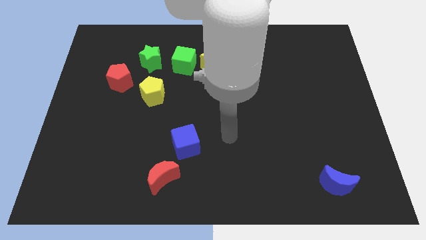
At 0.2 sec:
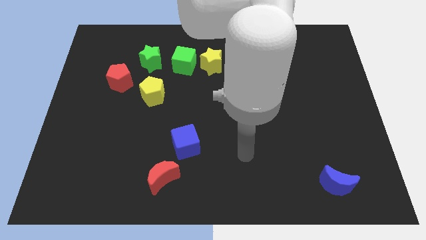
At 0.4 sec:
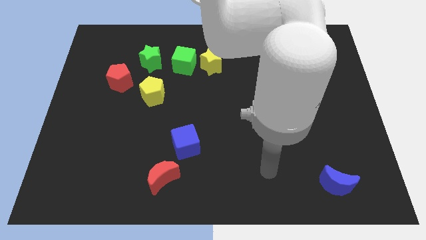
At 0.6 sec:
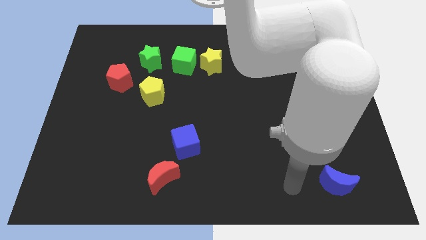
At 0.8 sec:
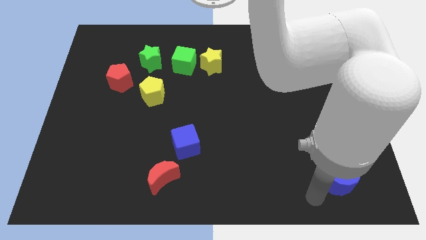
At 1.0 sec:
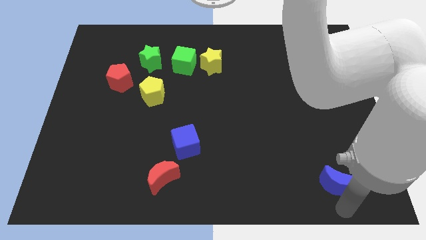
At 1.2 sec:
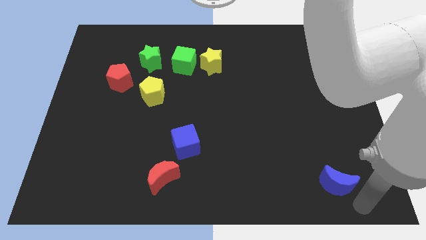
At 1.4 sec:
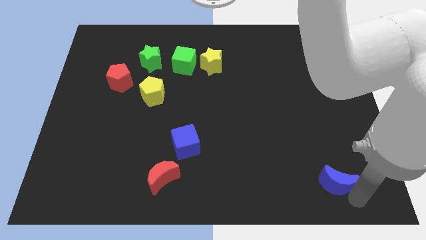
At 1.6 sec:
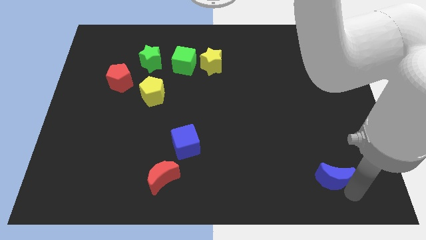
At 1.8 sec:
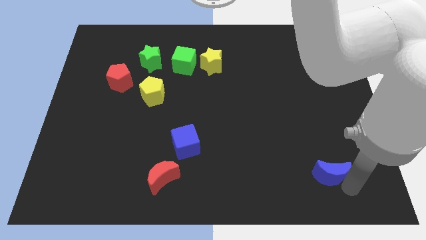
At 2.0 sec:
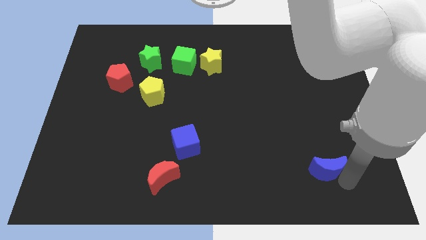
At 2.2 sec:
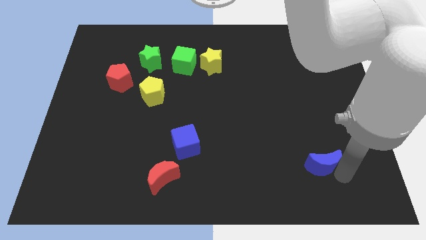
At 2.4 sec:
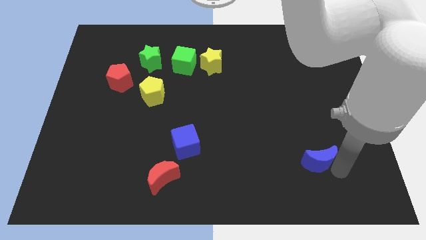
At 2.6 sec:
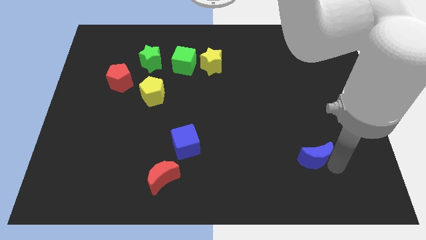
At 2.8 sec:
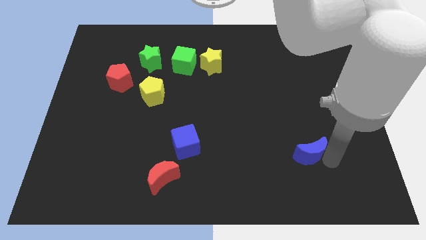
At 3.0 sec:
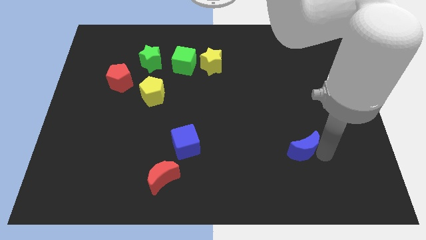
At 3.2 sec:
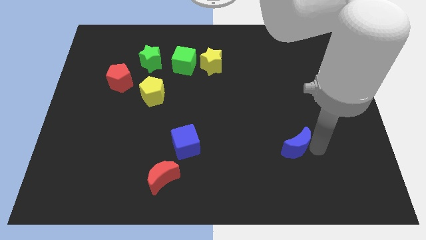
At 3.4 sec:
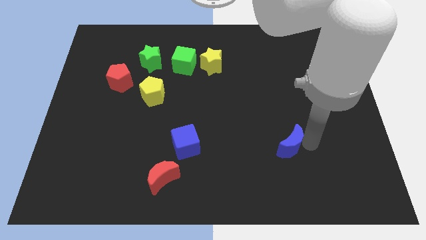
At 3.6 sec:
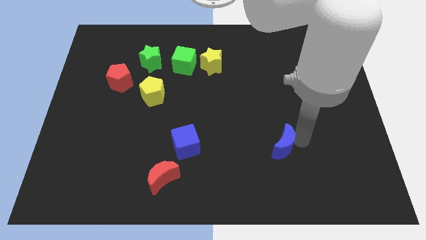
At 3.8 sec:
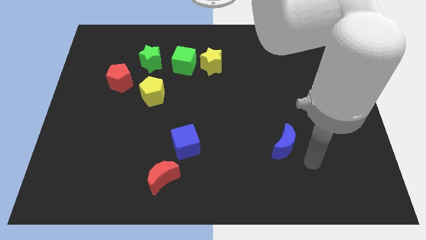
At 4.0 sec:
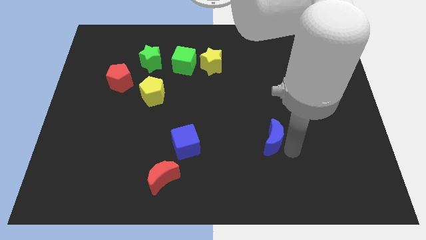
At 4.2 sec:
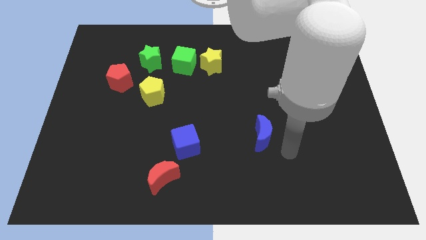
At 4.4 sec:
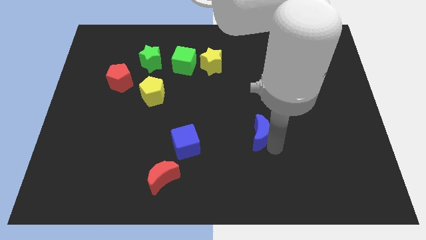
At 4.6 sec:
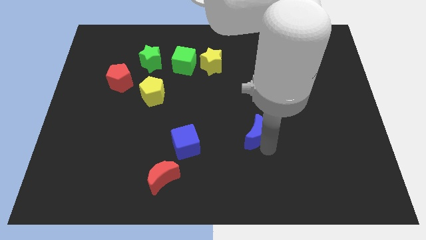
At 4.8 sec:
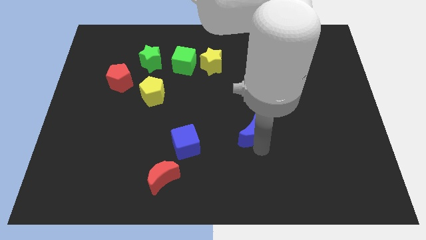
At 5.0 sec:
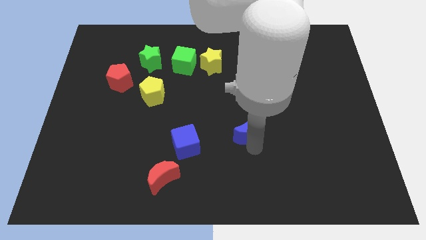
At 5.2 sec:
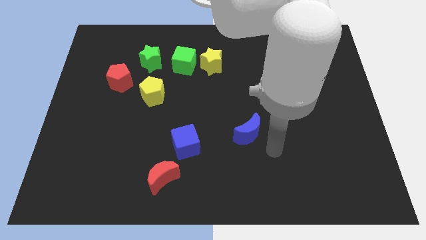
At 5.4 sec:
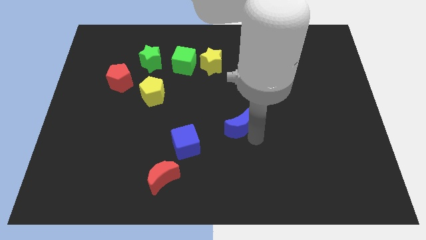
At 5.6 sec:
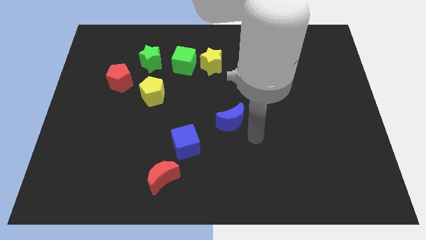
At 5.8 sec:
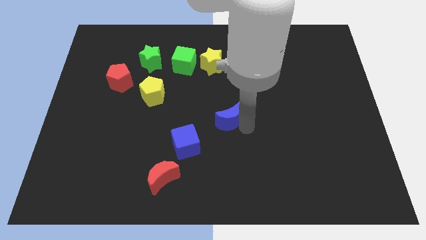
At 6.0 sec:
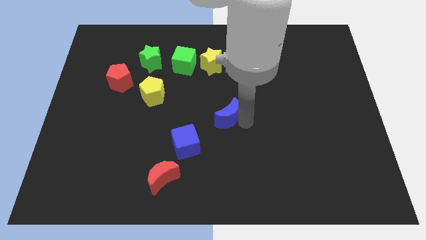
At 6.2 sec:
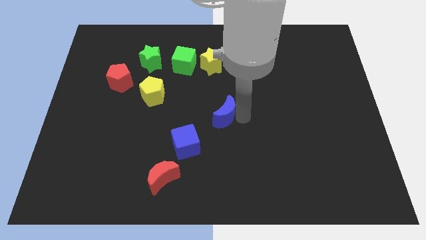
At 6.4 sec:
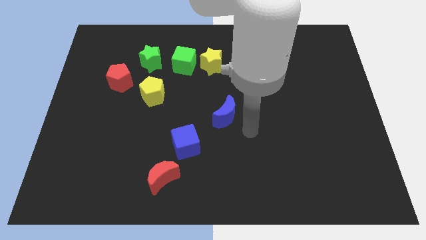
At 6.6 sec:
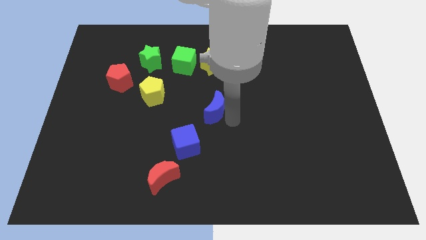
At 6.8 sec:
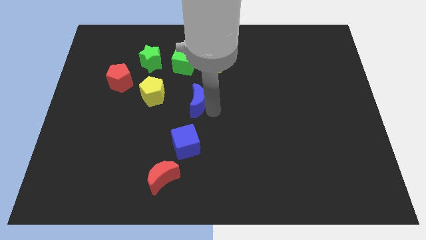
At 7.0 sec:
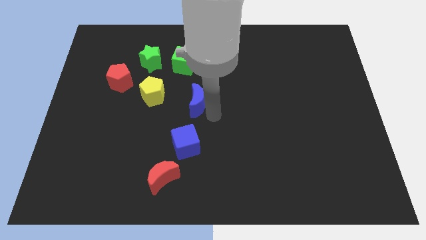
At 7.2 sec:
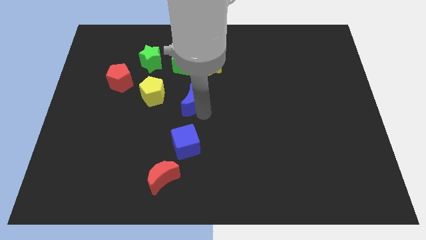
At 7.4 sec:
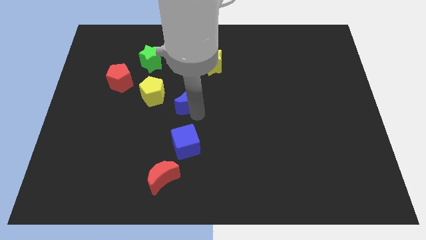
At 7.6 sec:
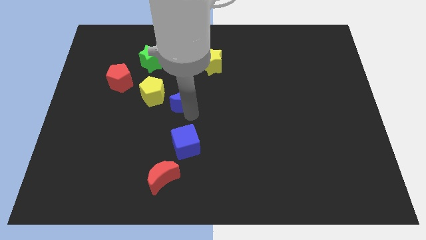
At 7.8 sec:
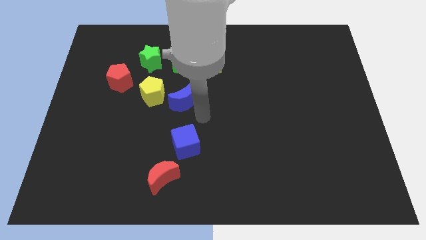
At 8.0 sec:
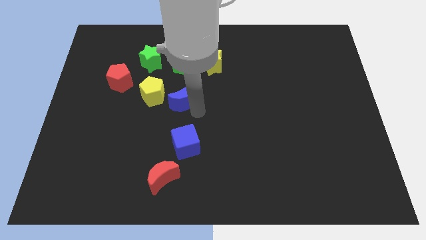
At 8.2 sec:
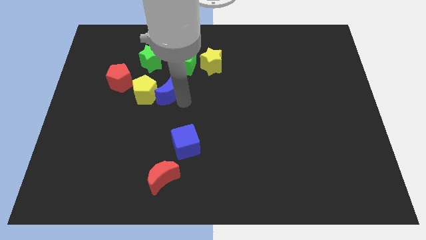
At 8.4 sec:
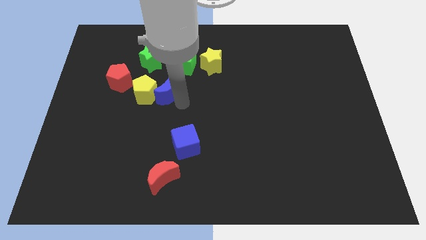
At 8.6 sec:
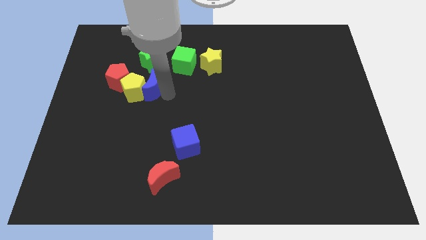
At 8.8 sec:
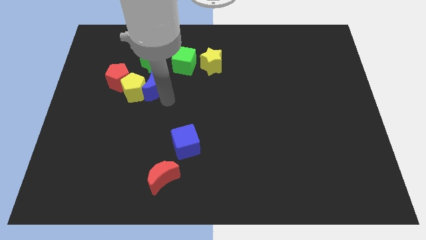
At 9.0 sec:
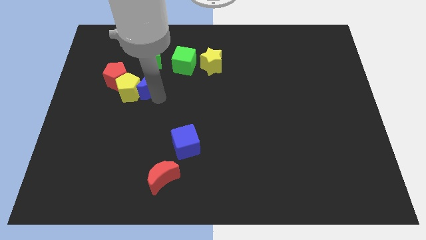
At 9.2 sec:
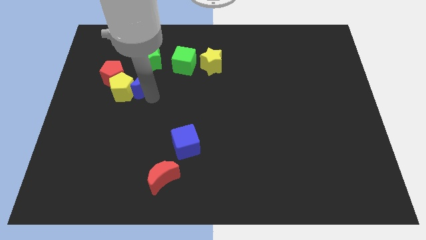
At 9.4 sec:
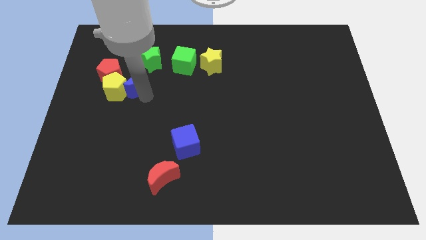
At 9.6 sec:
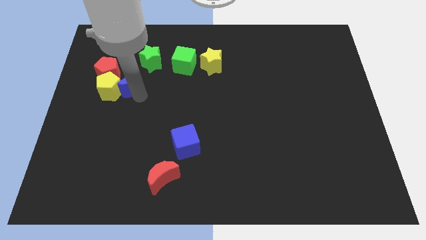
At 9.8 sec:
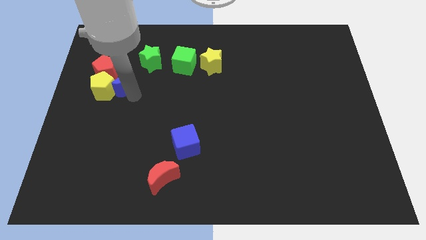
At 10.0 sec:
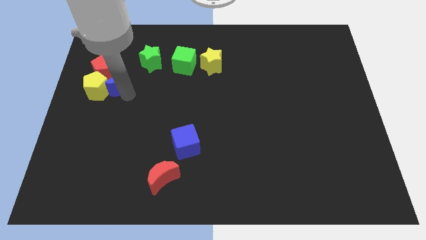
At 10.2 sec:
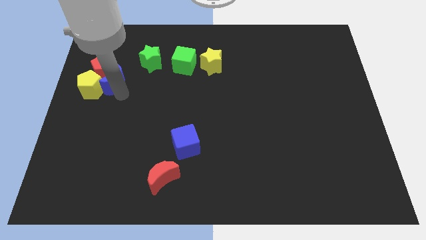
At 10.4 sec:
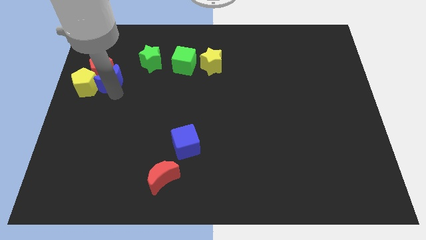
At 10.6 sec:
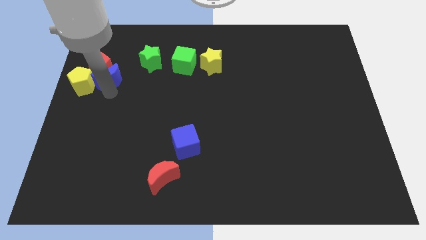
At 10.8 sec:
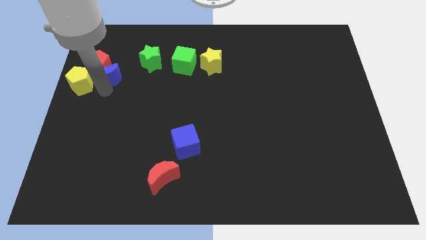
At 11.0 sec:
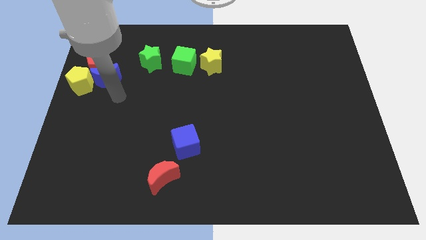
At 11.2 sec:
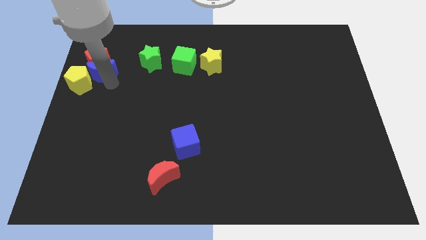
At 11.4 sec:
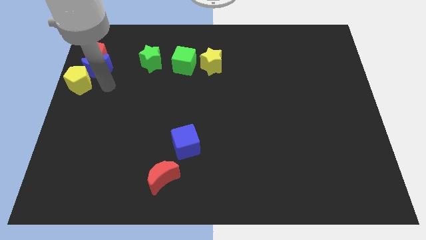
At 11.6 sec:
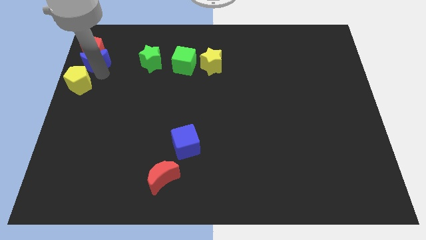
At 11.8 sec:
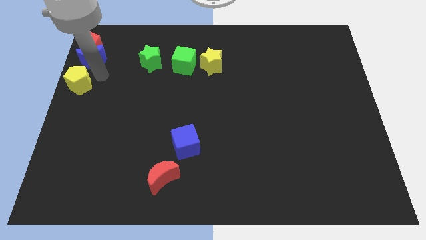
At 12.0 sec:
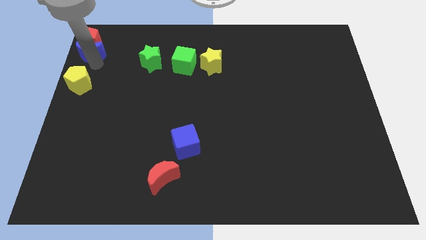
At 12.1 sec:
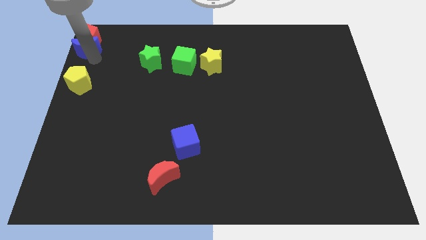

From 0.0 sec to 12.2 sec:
move the blue moon to the upper left corner

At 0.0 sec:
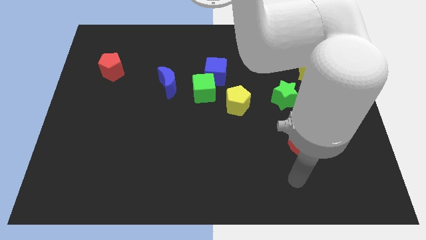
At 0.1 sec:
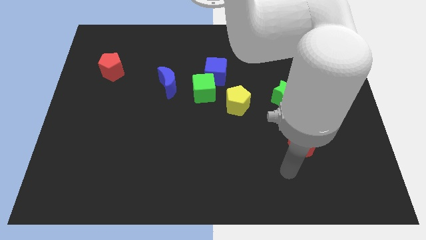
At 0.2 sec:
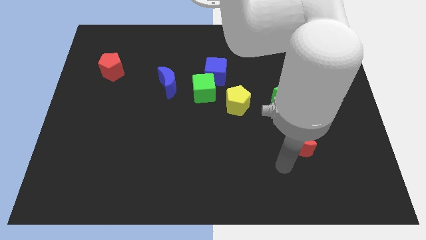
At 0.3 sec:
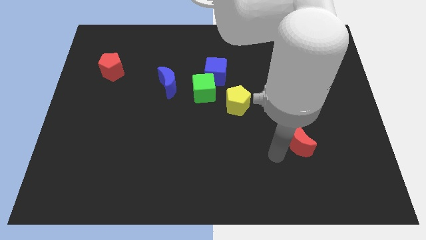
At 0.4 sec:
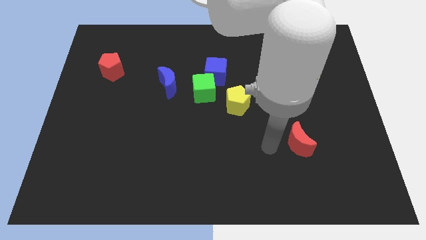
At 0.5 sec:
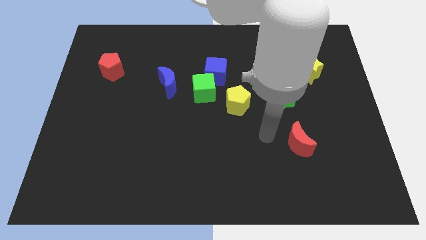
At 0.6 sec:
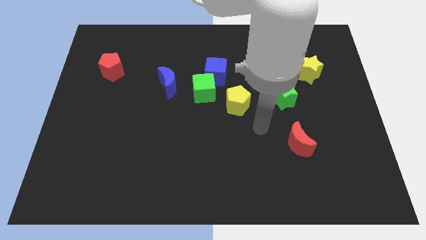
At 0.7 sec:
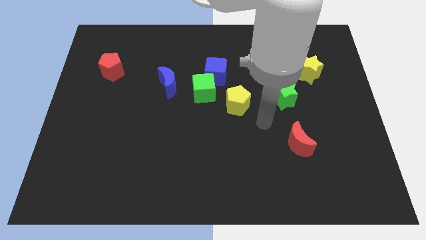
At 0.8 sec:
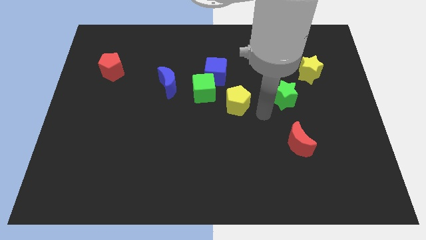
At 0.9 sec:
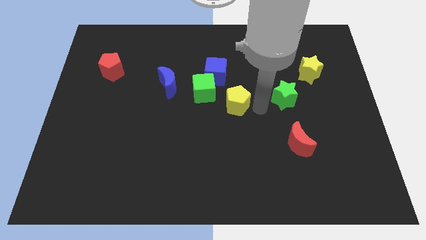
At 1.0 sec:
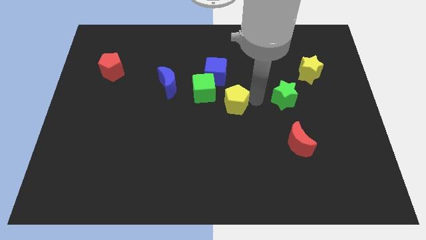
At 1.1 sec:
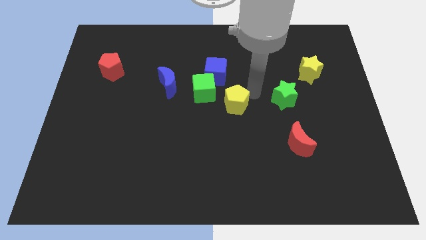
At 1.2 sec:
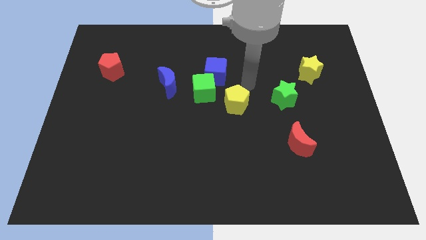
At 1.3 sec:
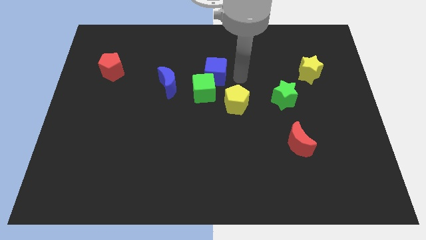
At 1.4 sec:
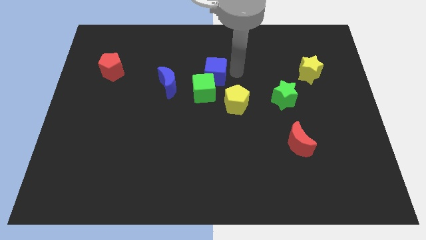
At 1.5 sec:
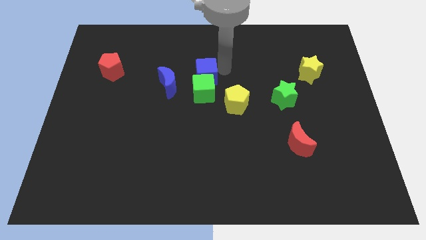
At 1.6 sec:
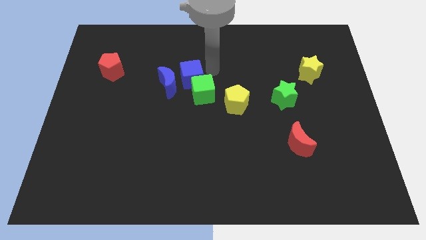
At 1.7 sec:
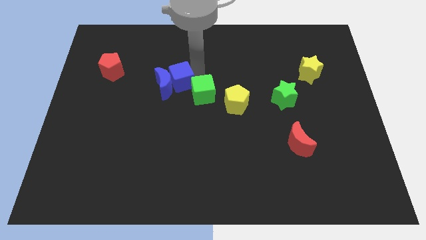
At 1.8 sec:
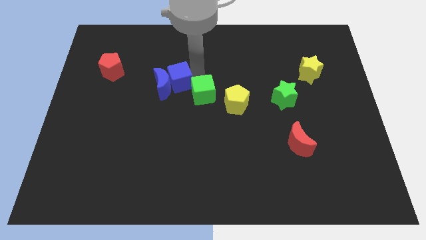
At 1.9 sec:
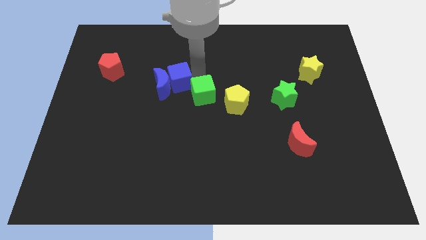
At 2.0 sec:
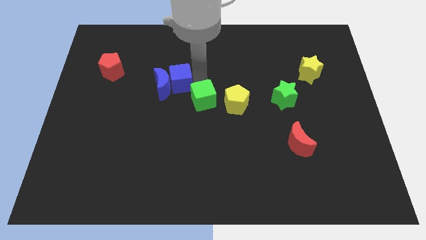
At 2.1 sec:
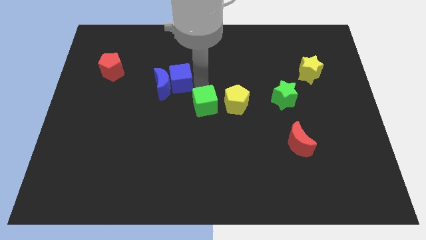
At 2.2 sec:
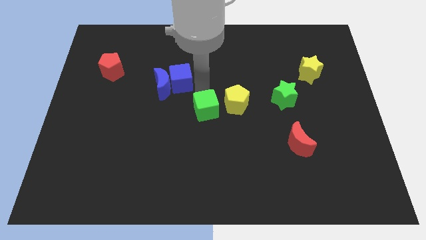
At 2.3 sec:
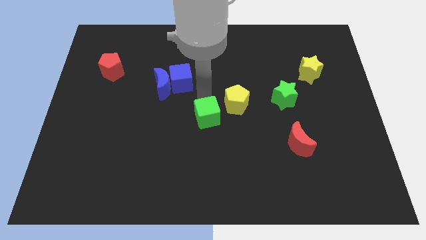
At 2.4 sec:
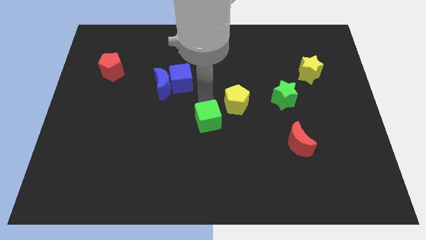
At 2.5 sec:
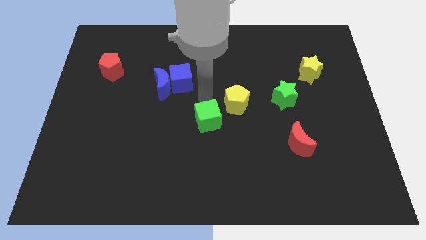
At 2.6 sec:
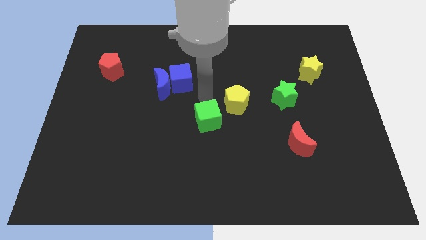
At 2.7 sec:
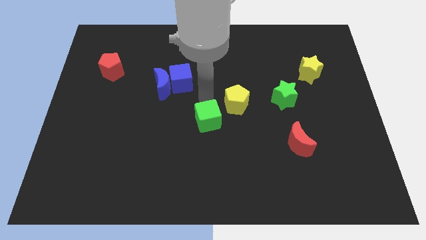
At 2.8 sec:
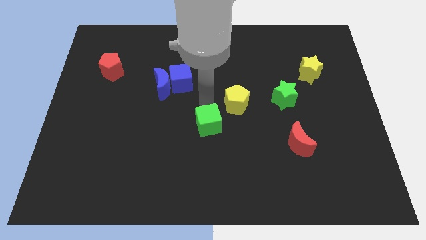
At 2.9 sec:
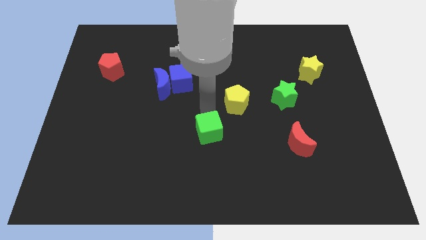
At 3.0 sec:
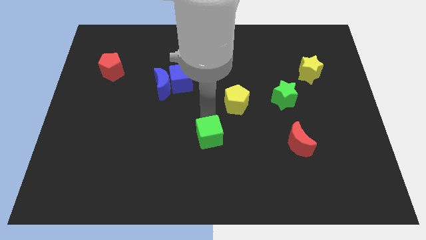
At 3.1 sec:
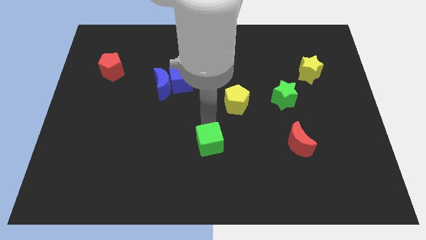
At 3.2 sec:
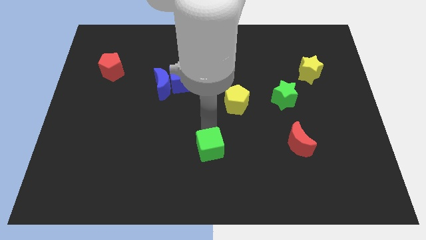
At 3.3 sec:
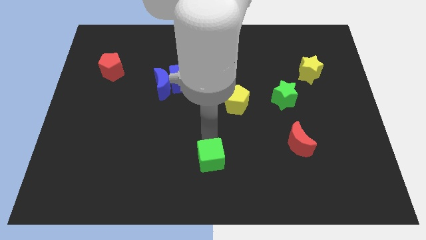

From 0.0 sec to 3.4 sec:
push the green cube to the bottom
